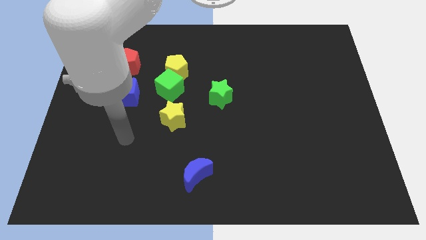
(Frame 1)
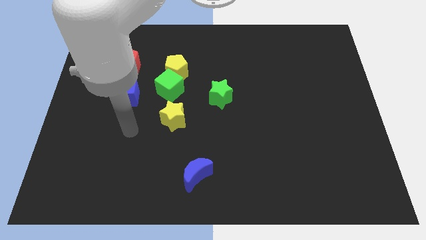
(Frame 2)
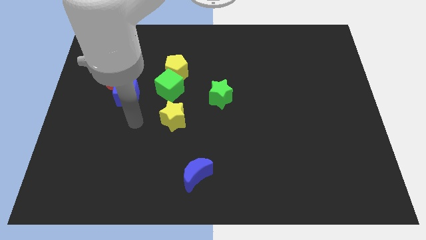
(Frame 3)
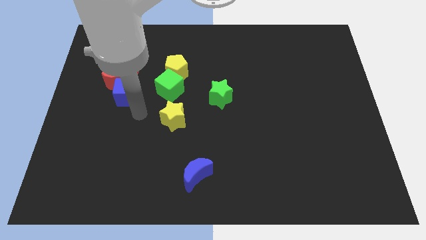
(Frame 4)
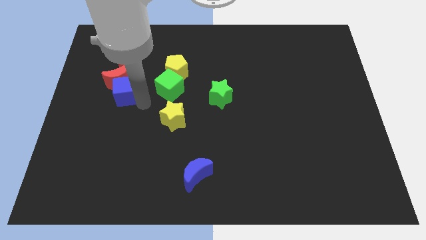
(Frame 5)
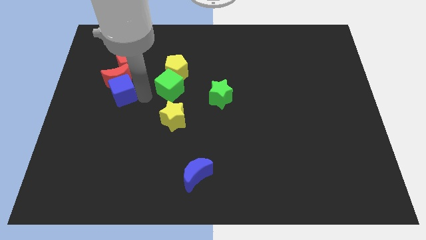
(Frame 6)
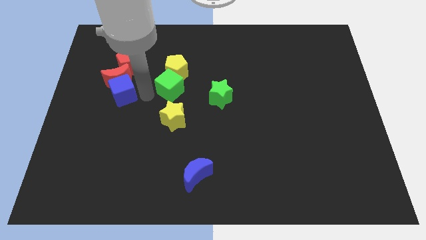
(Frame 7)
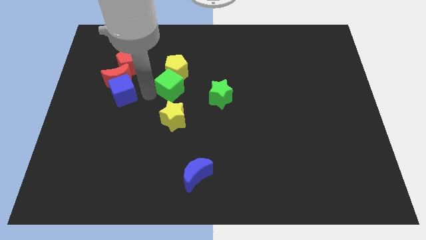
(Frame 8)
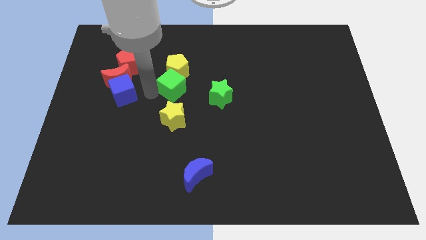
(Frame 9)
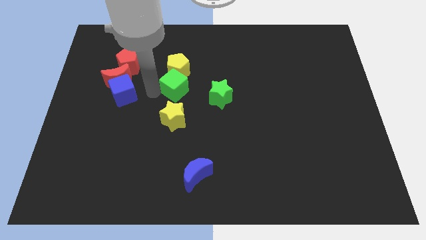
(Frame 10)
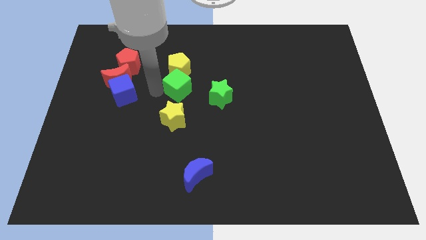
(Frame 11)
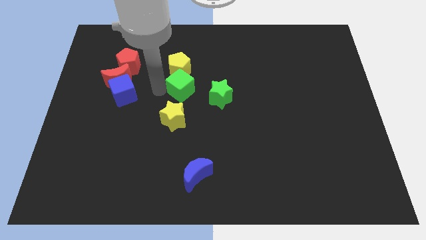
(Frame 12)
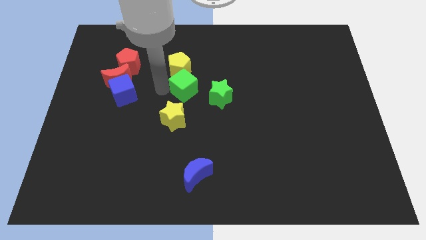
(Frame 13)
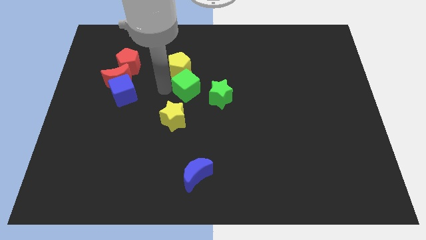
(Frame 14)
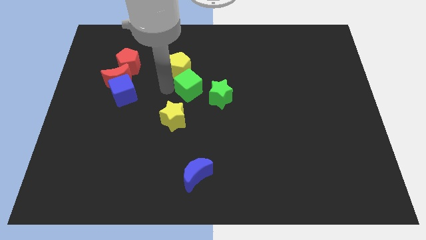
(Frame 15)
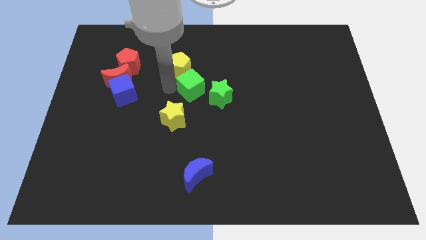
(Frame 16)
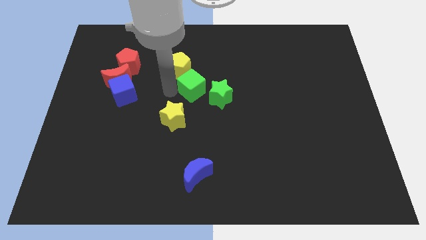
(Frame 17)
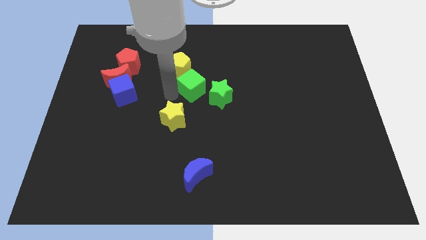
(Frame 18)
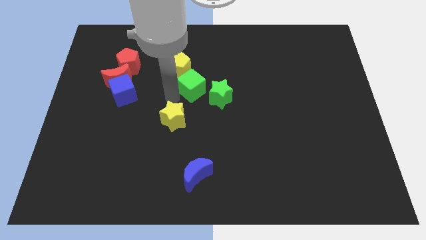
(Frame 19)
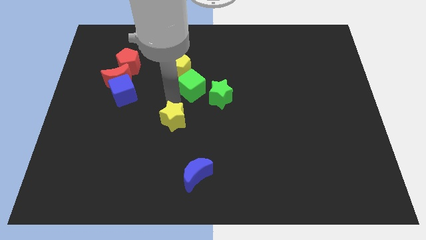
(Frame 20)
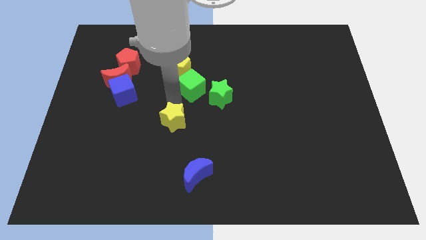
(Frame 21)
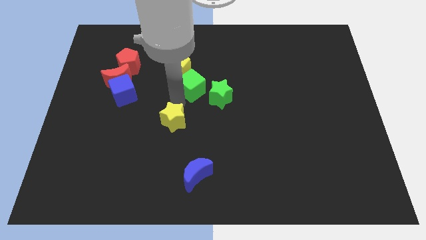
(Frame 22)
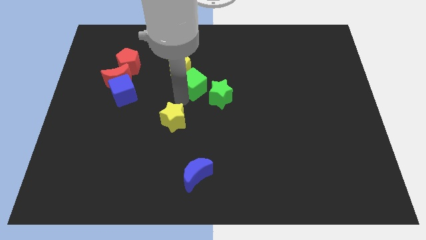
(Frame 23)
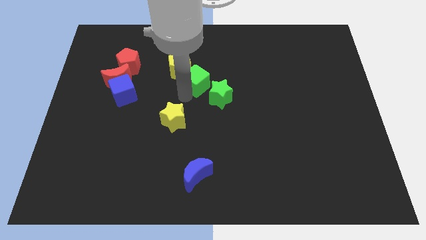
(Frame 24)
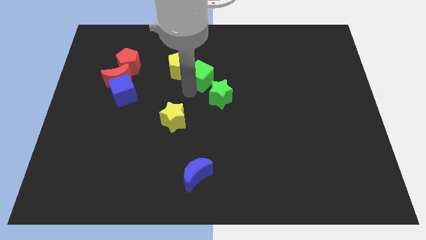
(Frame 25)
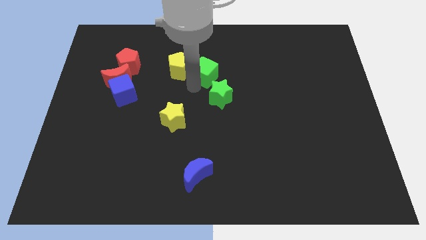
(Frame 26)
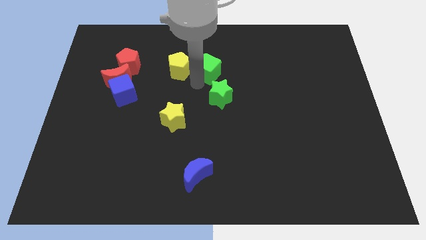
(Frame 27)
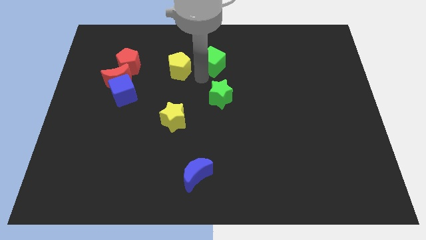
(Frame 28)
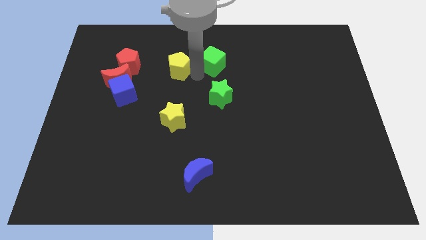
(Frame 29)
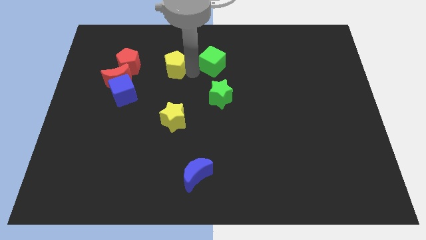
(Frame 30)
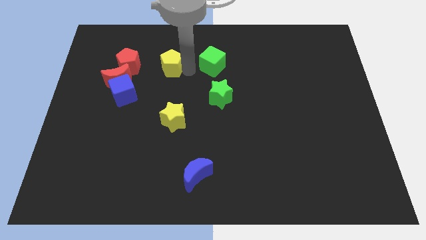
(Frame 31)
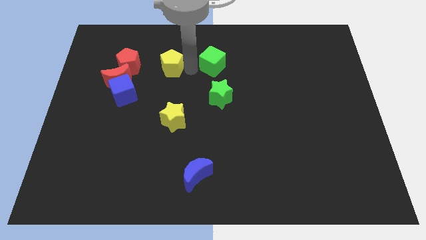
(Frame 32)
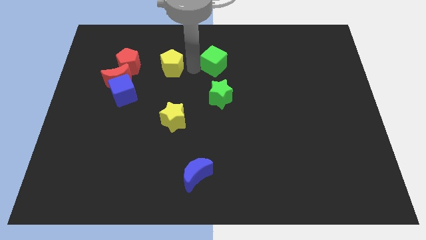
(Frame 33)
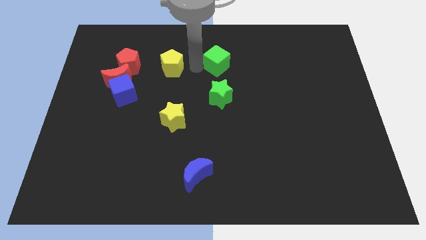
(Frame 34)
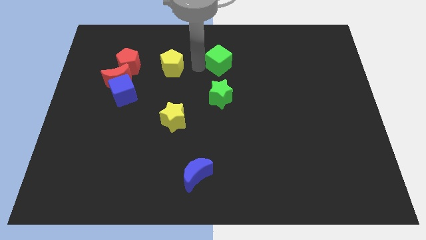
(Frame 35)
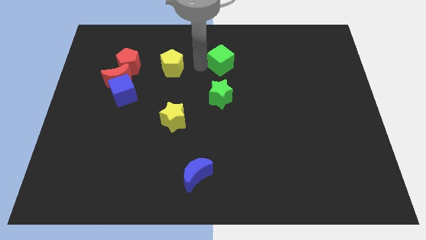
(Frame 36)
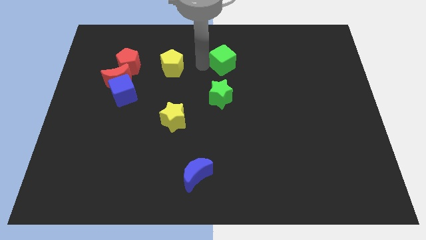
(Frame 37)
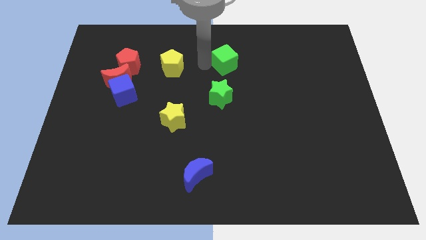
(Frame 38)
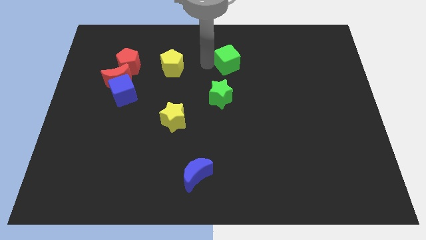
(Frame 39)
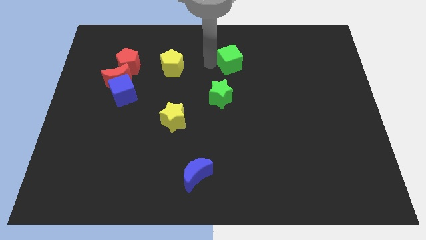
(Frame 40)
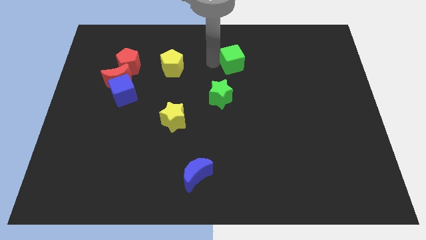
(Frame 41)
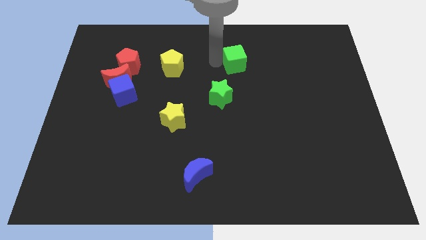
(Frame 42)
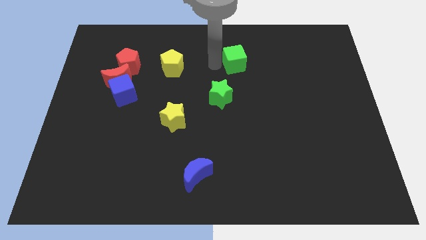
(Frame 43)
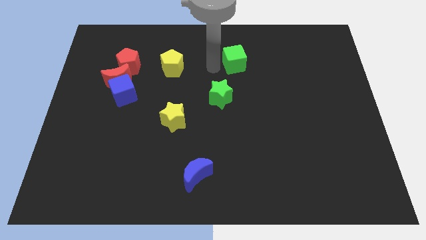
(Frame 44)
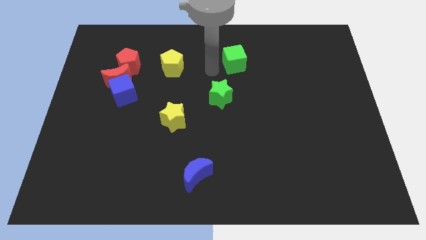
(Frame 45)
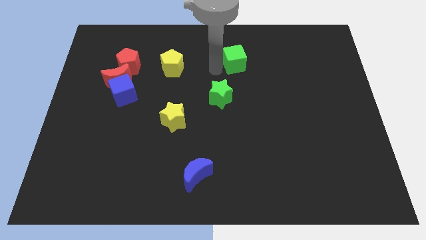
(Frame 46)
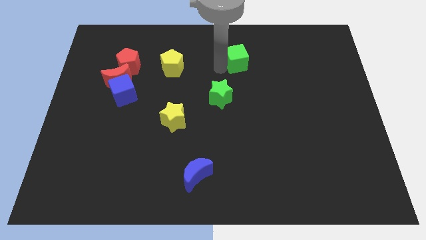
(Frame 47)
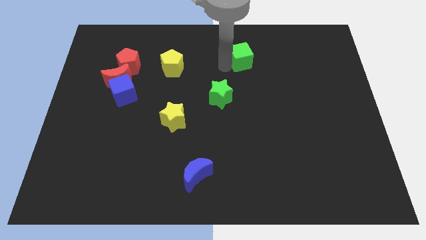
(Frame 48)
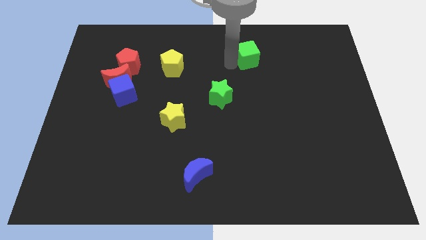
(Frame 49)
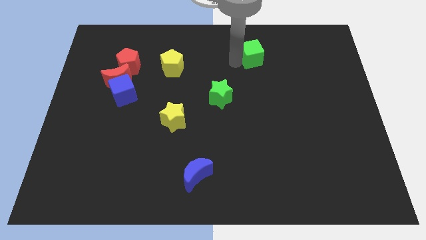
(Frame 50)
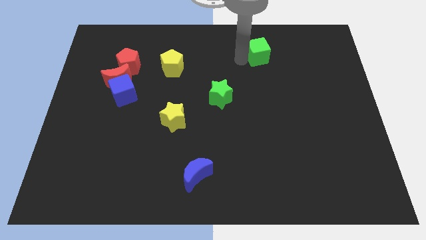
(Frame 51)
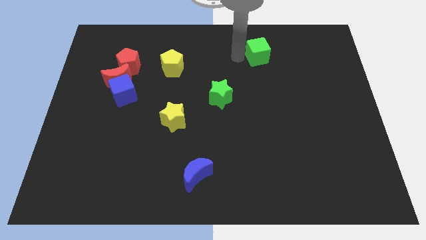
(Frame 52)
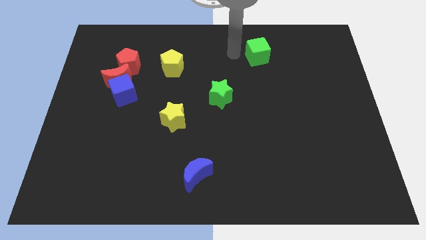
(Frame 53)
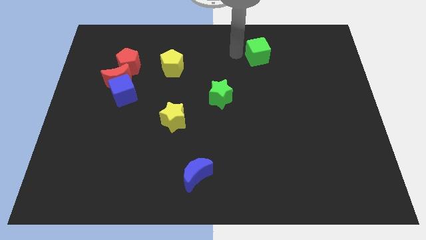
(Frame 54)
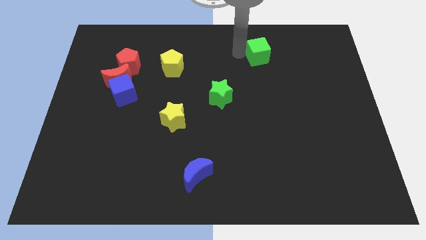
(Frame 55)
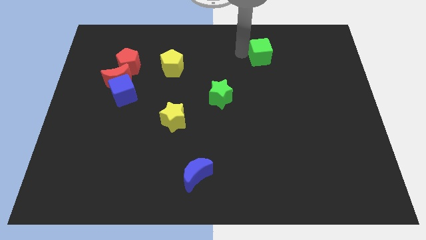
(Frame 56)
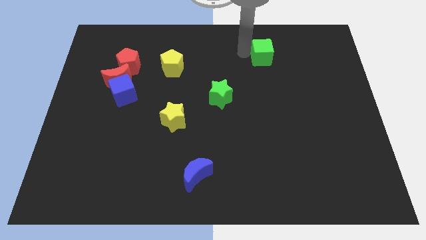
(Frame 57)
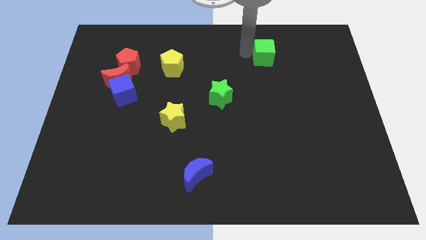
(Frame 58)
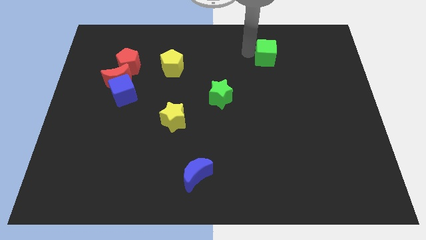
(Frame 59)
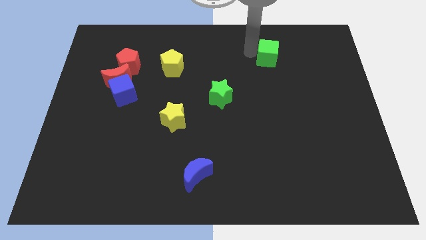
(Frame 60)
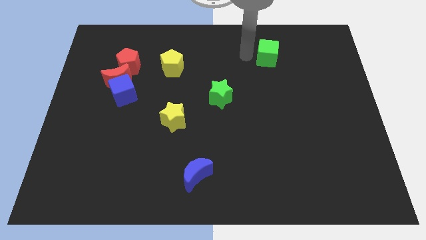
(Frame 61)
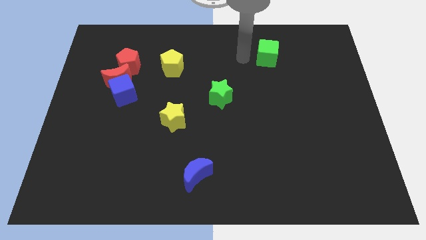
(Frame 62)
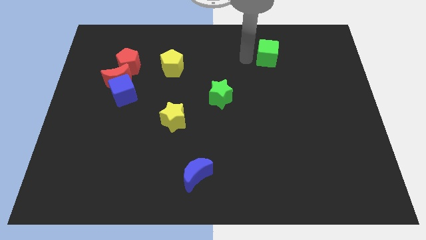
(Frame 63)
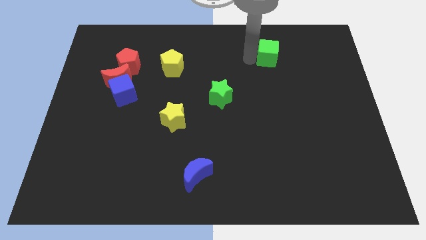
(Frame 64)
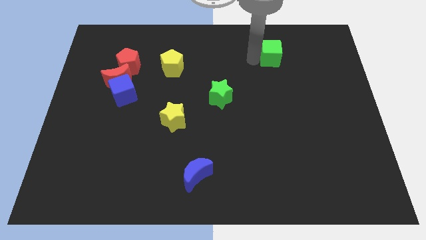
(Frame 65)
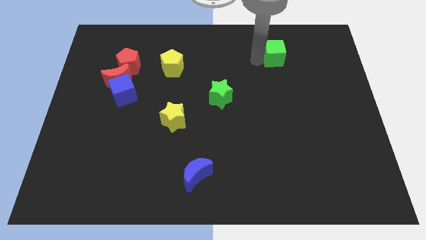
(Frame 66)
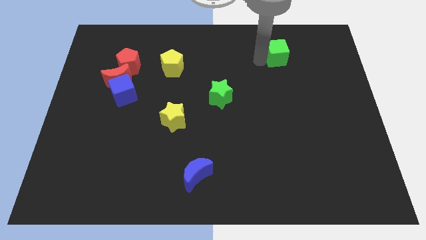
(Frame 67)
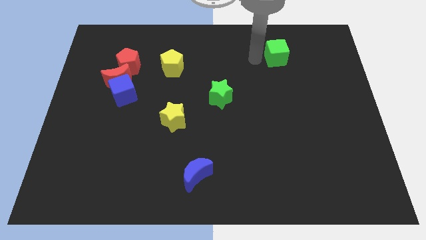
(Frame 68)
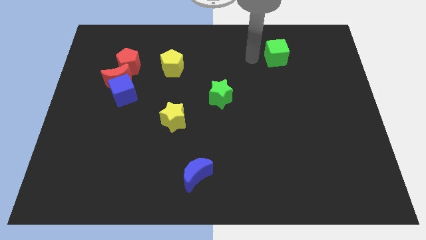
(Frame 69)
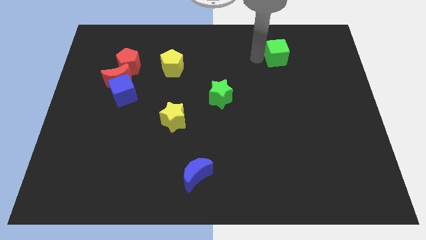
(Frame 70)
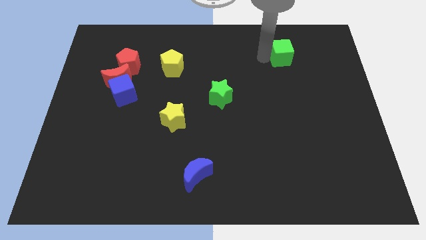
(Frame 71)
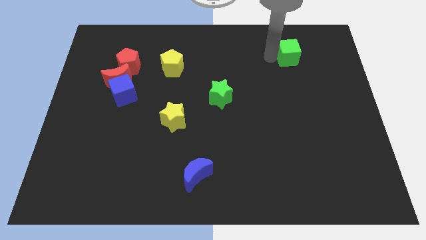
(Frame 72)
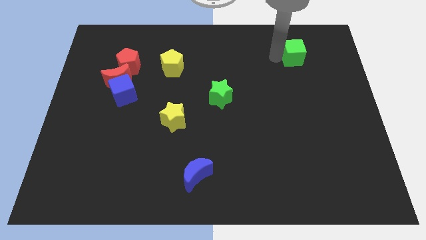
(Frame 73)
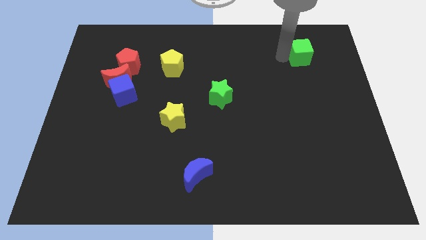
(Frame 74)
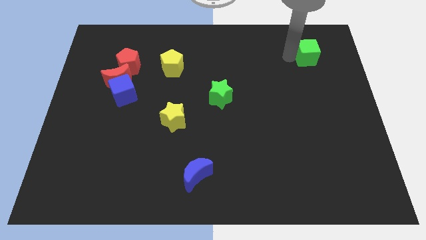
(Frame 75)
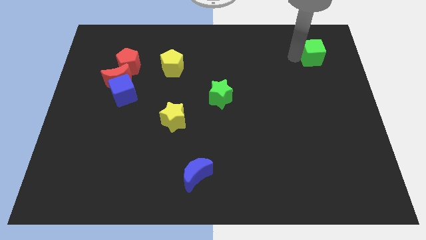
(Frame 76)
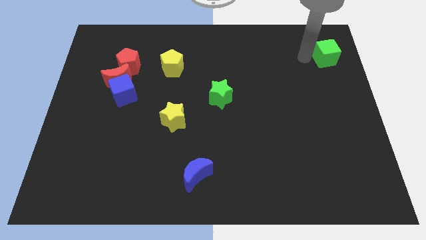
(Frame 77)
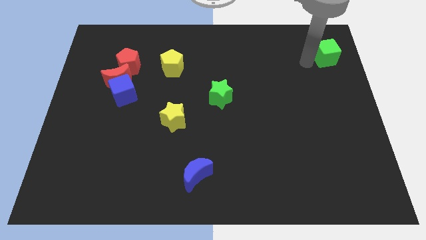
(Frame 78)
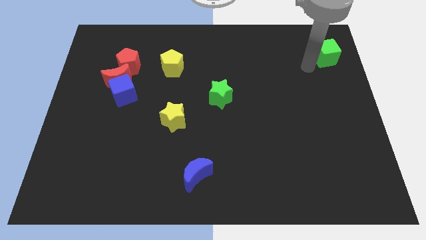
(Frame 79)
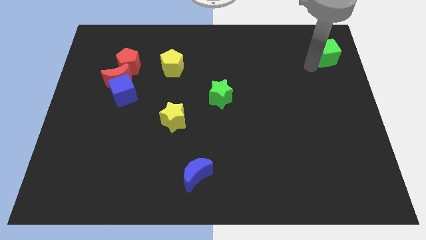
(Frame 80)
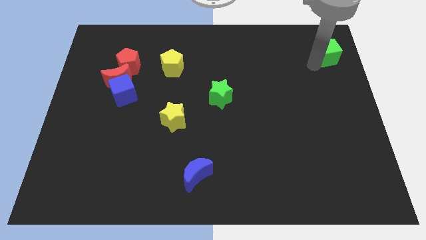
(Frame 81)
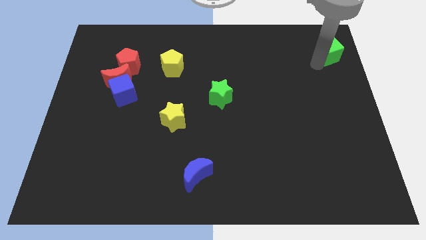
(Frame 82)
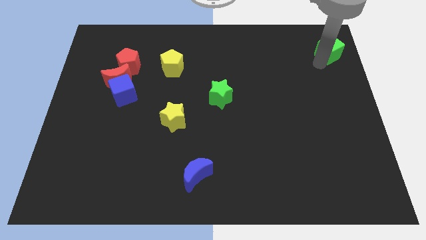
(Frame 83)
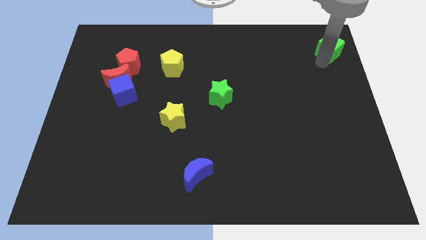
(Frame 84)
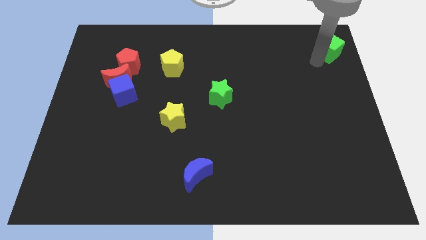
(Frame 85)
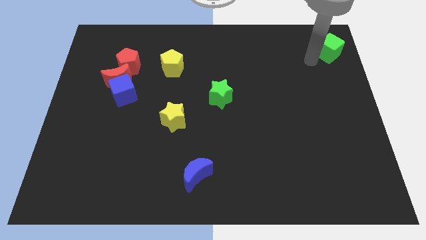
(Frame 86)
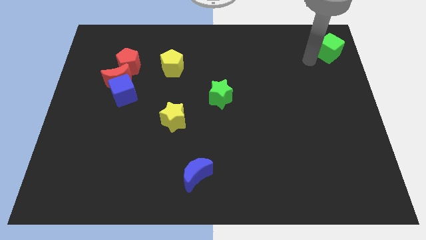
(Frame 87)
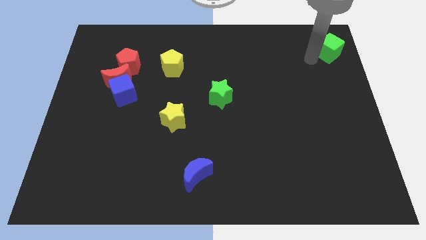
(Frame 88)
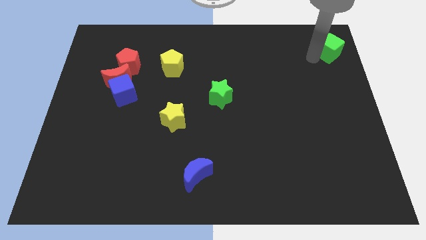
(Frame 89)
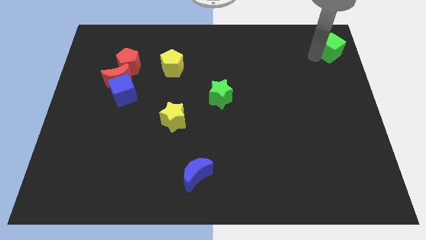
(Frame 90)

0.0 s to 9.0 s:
slide the green cube to the top right of the board
